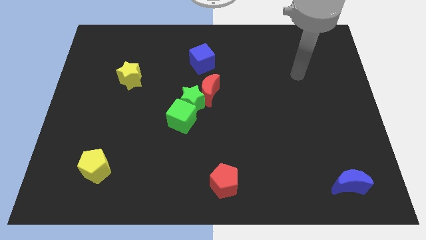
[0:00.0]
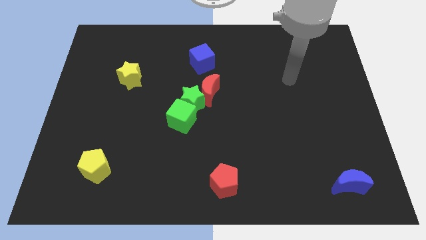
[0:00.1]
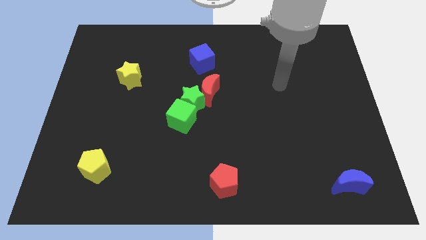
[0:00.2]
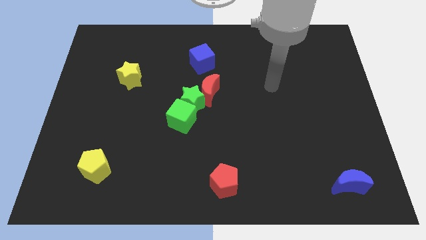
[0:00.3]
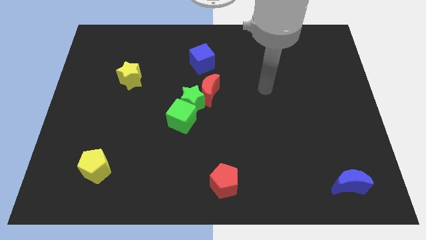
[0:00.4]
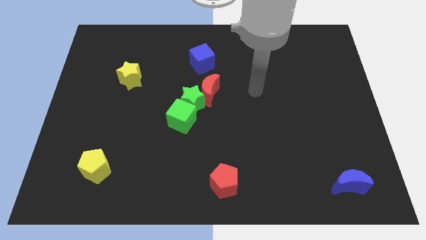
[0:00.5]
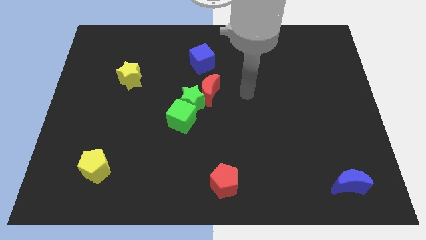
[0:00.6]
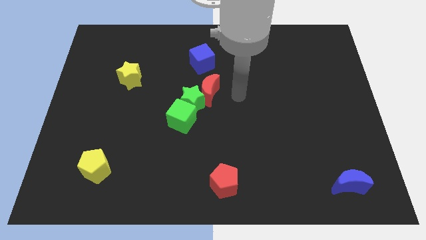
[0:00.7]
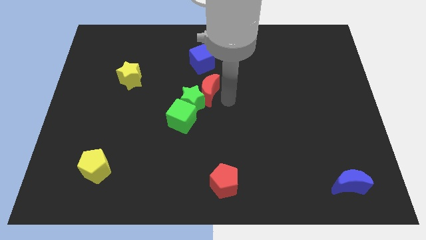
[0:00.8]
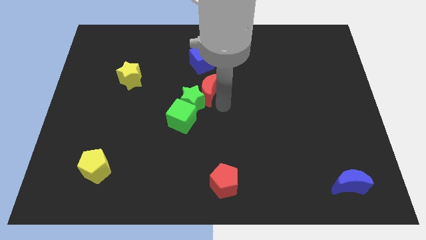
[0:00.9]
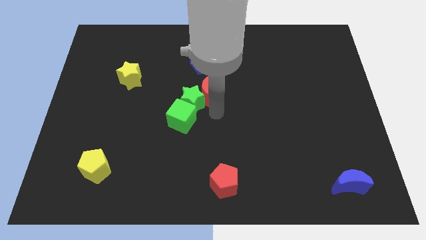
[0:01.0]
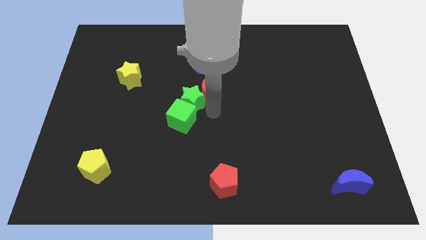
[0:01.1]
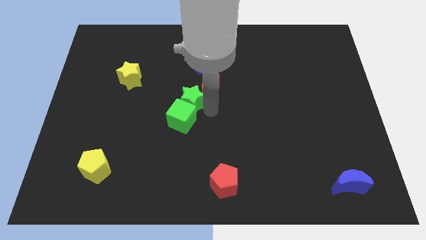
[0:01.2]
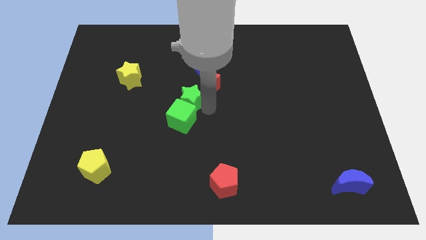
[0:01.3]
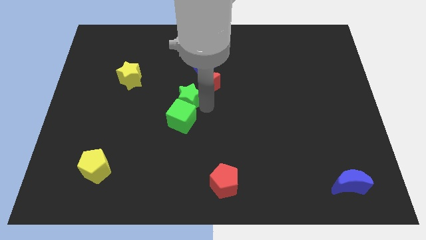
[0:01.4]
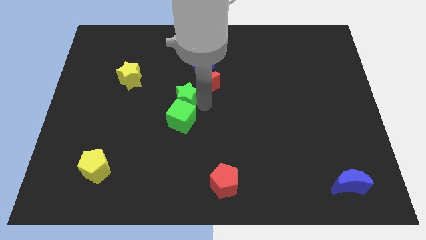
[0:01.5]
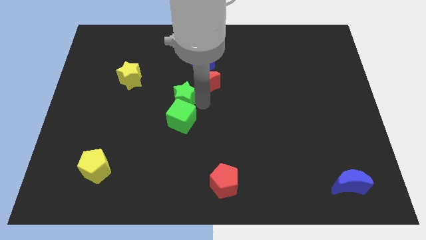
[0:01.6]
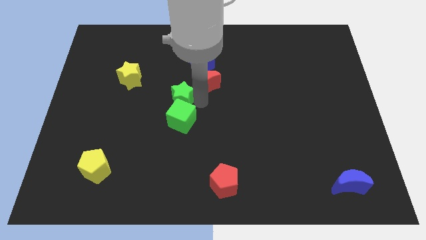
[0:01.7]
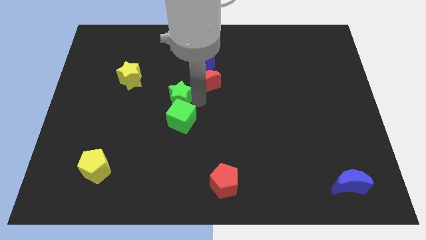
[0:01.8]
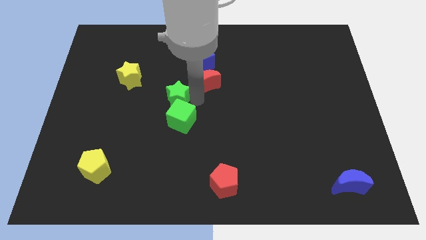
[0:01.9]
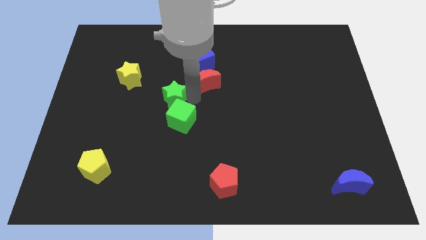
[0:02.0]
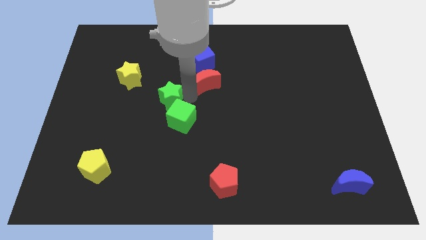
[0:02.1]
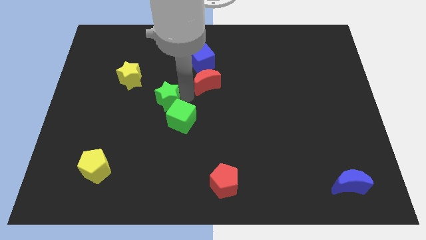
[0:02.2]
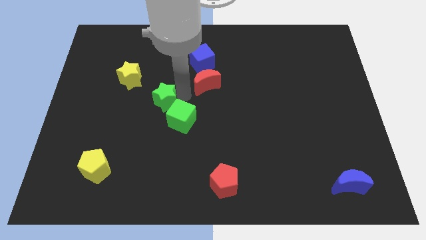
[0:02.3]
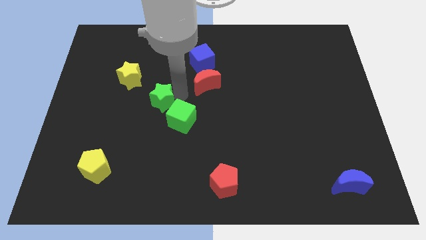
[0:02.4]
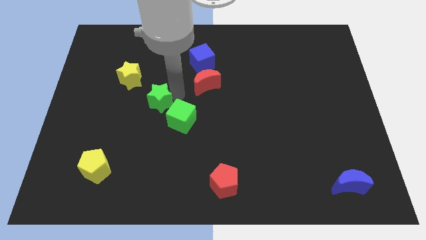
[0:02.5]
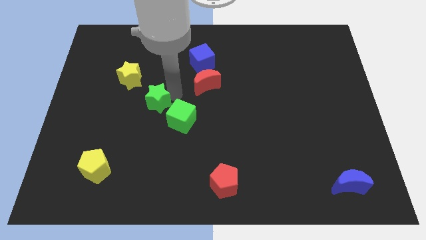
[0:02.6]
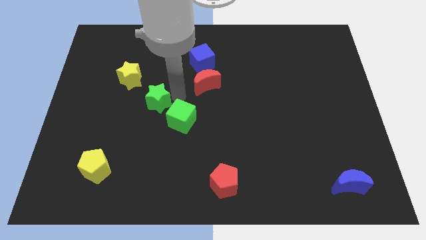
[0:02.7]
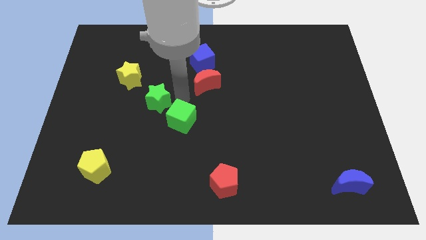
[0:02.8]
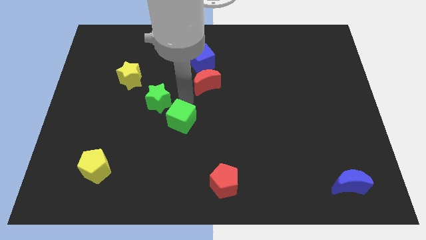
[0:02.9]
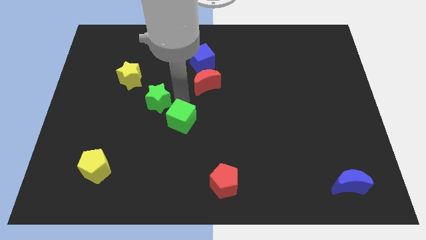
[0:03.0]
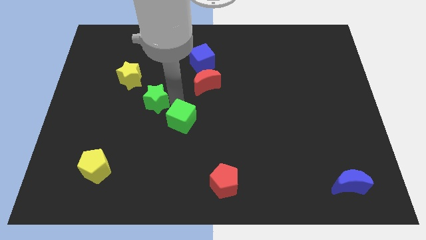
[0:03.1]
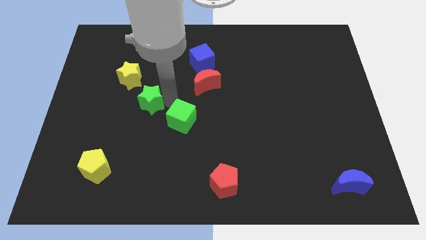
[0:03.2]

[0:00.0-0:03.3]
pull the green star apart from the green cube and red moon

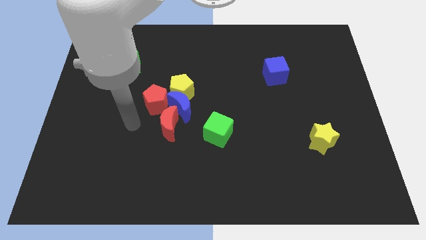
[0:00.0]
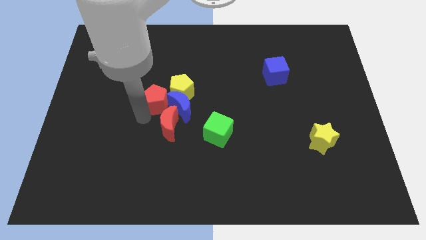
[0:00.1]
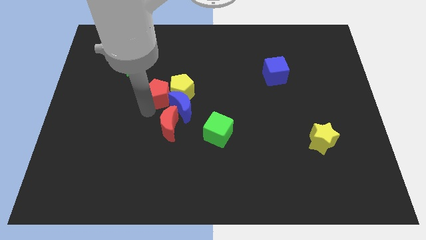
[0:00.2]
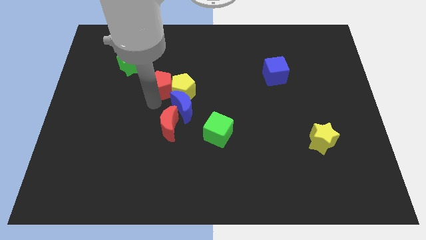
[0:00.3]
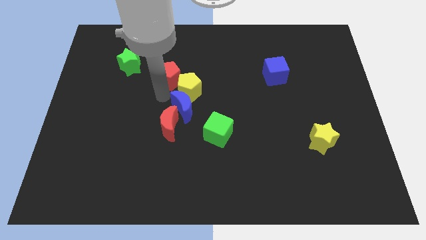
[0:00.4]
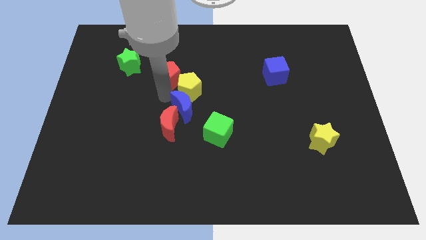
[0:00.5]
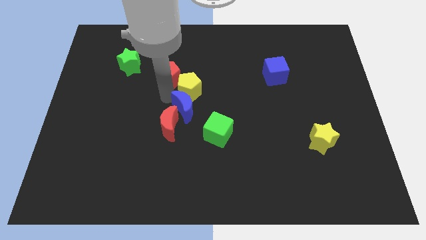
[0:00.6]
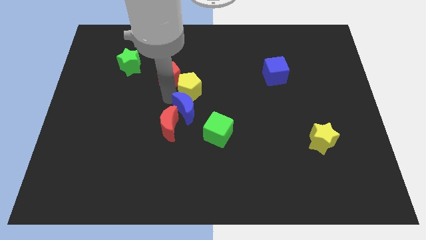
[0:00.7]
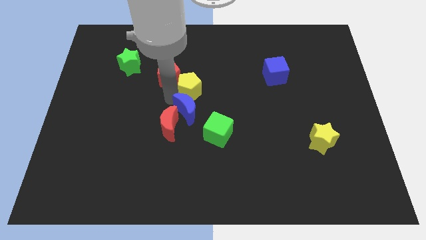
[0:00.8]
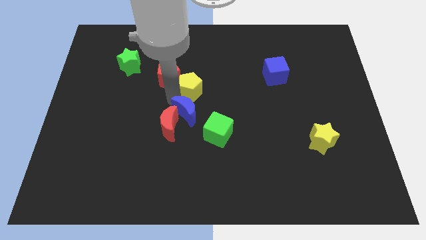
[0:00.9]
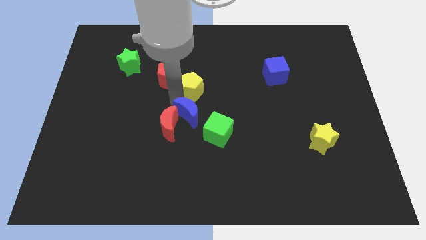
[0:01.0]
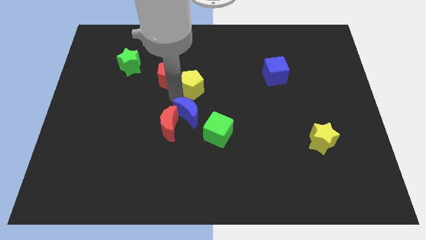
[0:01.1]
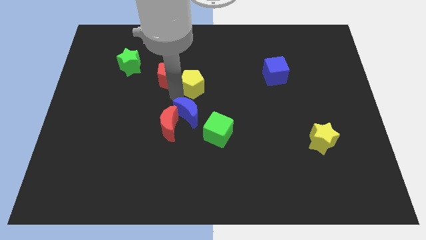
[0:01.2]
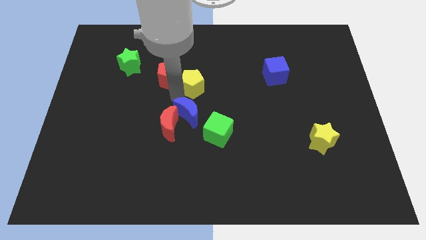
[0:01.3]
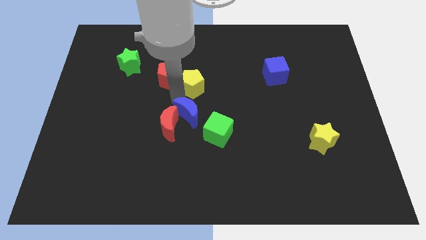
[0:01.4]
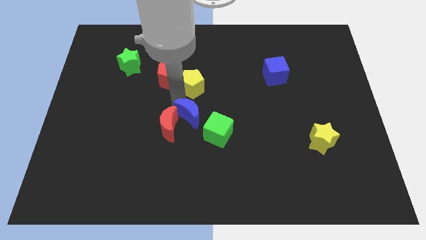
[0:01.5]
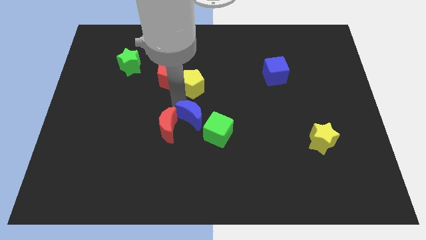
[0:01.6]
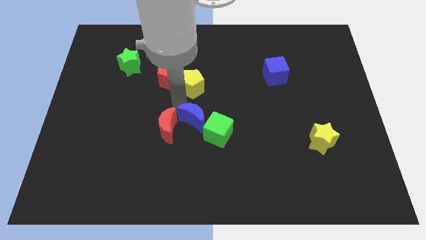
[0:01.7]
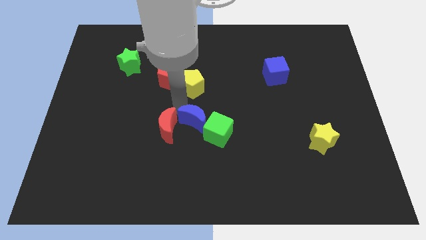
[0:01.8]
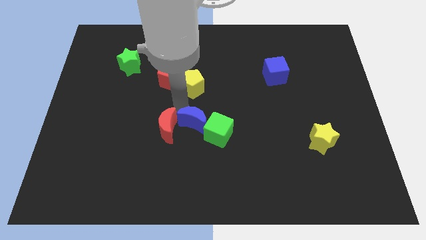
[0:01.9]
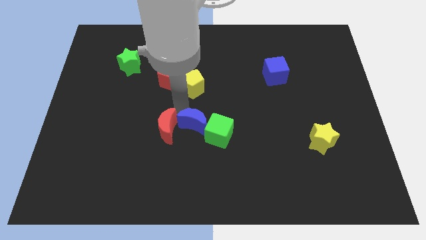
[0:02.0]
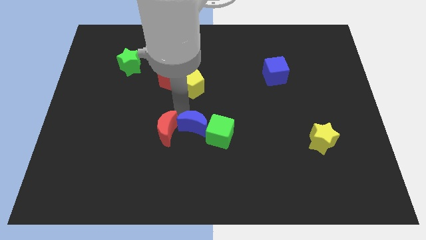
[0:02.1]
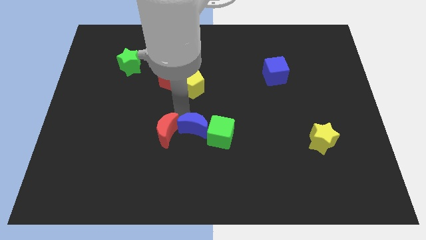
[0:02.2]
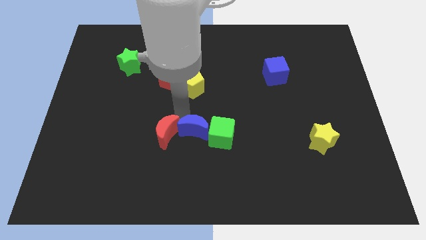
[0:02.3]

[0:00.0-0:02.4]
pull the blue moon apart from the yellow pentagon, red moon, and red pentagon

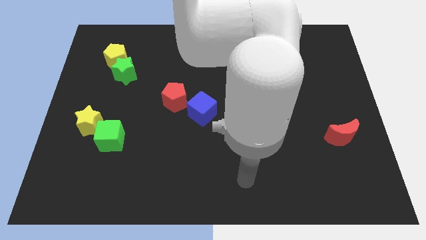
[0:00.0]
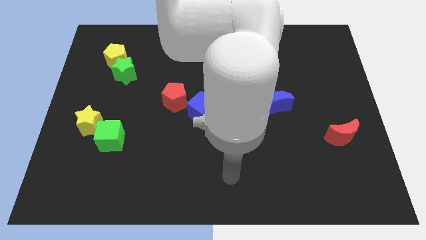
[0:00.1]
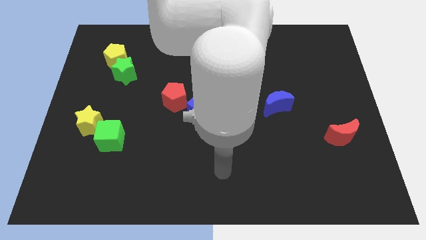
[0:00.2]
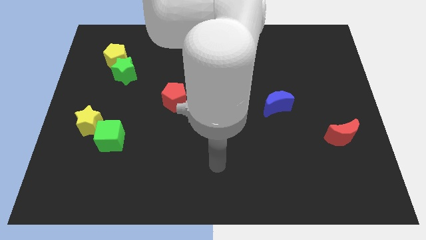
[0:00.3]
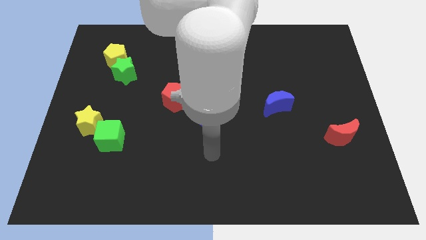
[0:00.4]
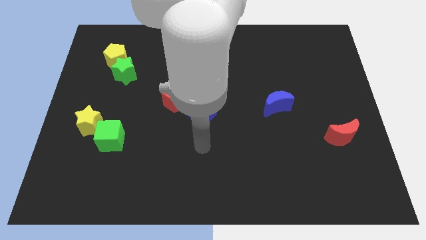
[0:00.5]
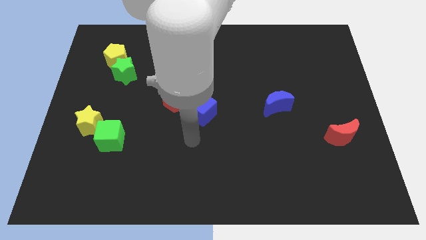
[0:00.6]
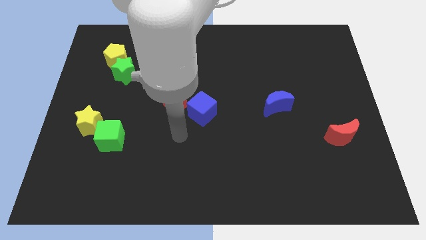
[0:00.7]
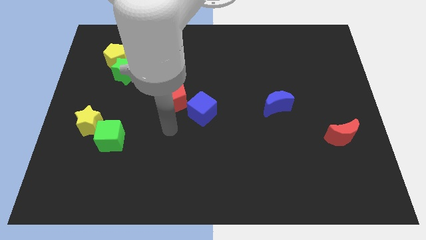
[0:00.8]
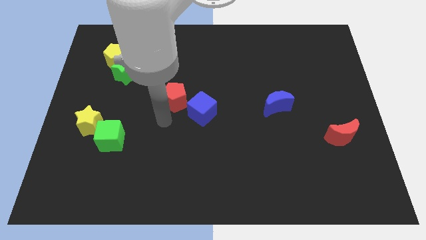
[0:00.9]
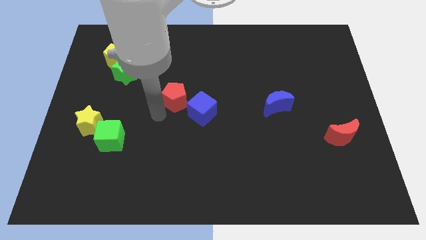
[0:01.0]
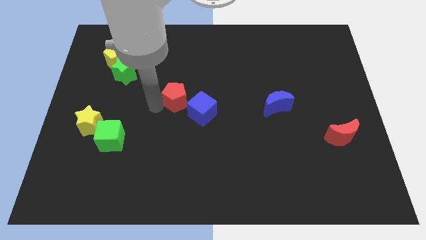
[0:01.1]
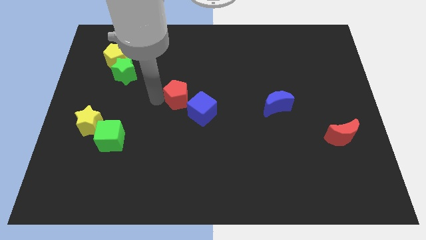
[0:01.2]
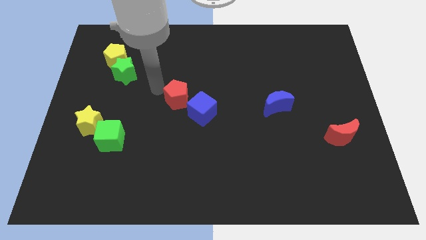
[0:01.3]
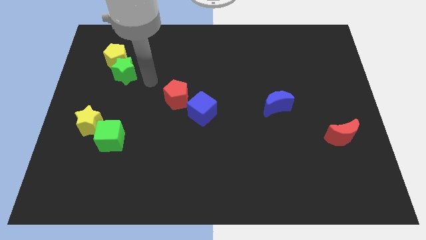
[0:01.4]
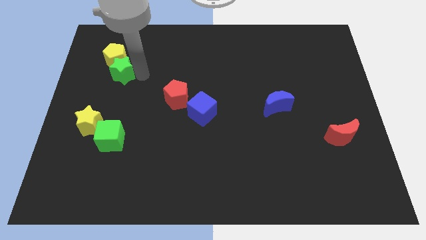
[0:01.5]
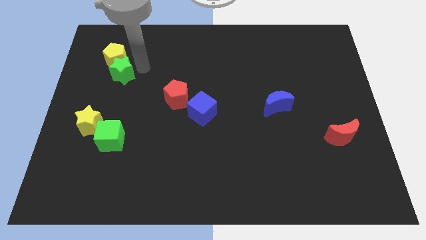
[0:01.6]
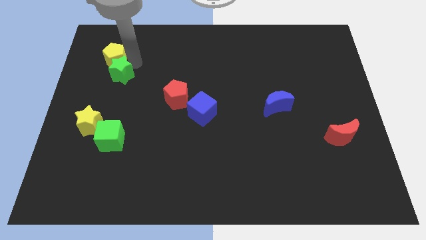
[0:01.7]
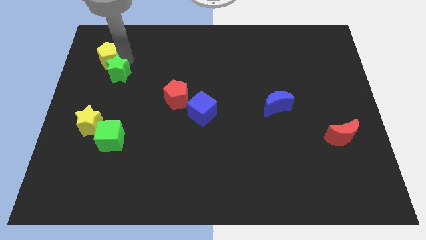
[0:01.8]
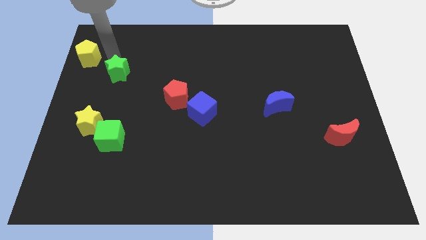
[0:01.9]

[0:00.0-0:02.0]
pull the green star apart from the yellow pentagon

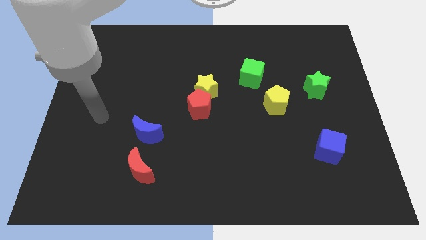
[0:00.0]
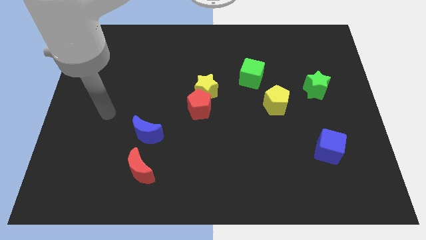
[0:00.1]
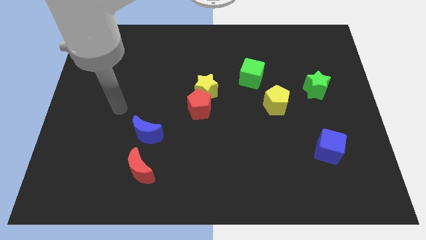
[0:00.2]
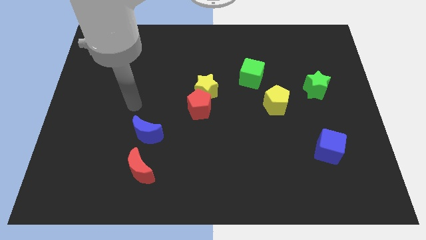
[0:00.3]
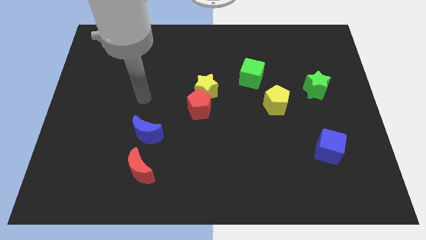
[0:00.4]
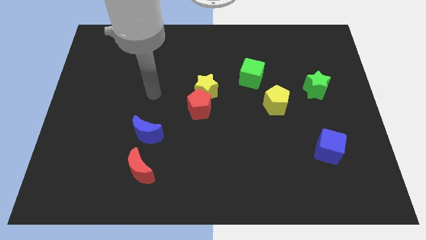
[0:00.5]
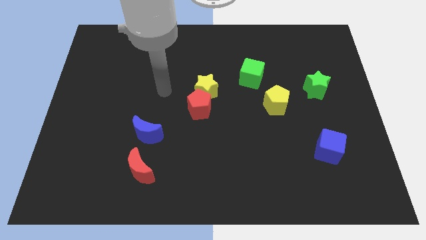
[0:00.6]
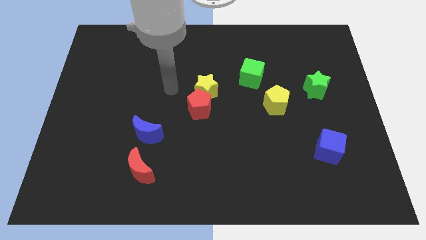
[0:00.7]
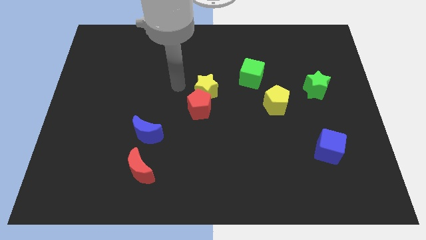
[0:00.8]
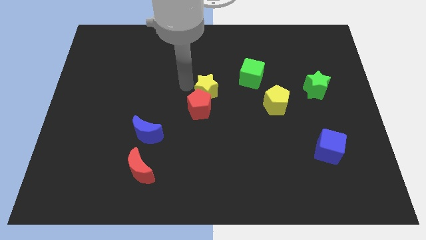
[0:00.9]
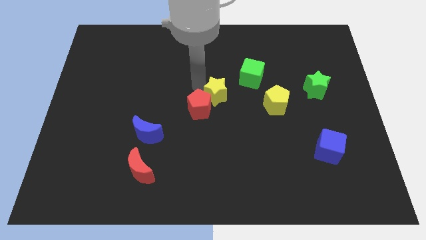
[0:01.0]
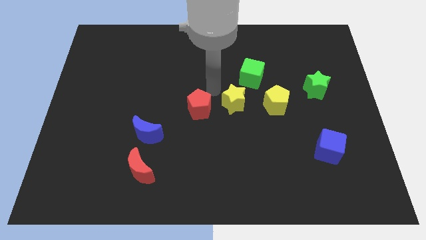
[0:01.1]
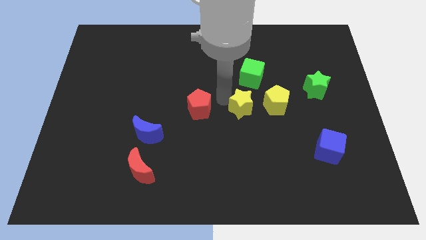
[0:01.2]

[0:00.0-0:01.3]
pull the red pentagon apart from the yellow star

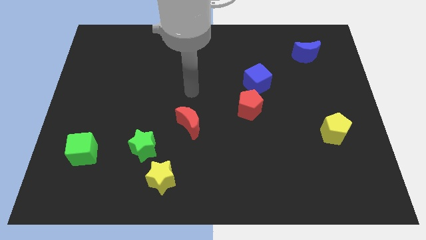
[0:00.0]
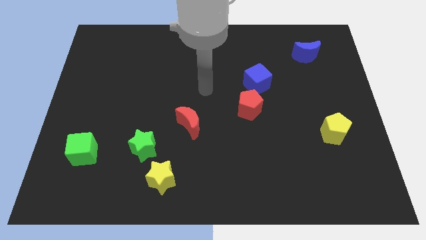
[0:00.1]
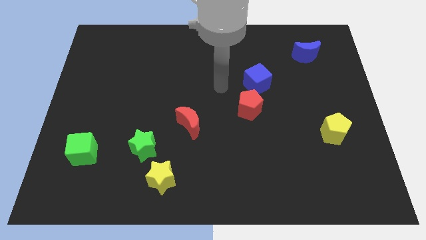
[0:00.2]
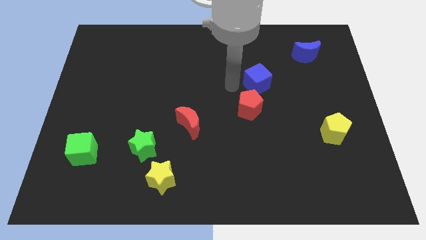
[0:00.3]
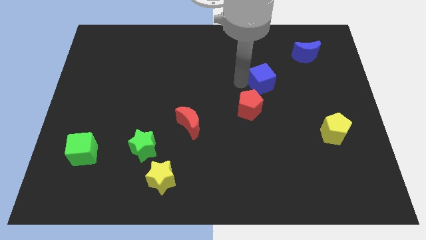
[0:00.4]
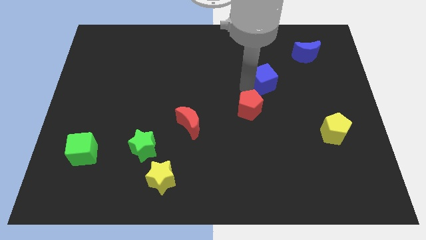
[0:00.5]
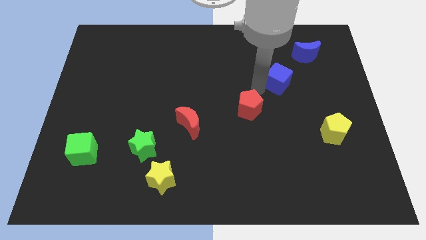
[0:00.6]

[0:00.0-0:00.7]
pull the red pentagon apart from the blue cube
